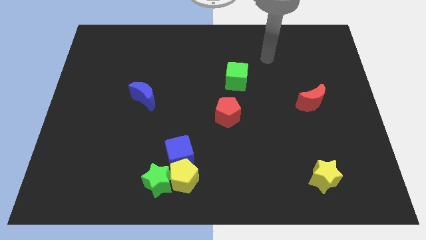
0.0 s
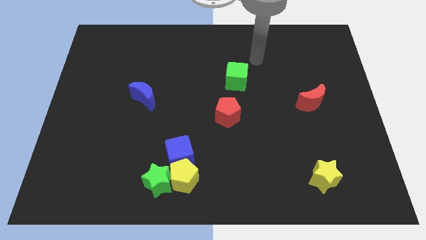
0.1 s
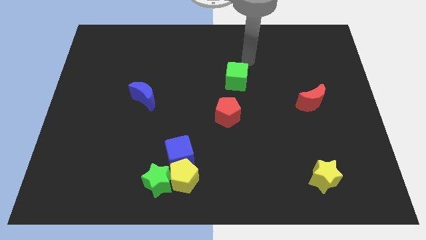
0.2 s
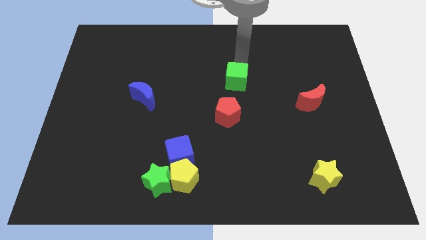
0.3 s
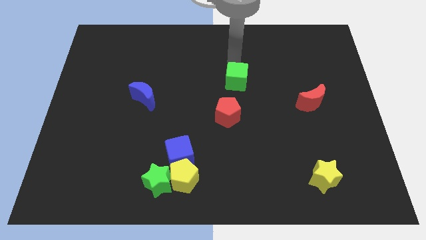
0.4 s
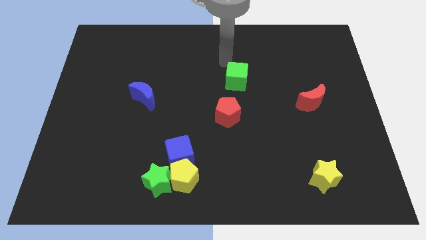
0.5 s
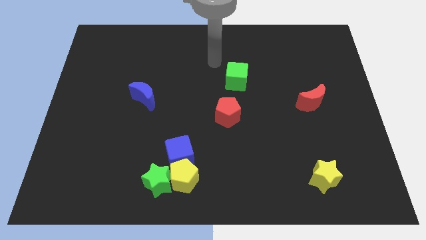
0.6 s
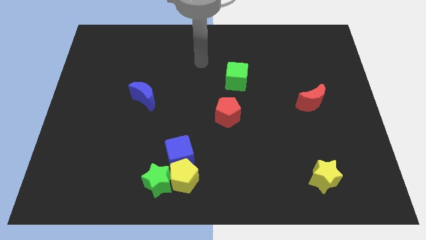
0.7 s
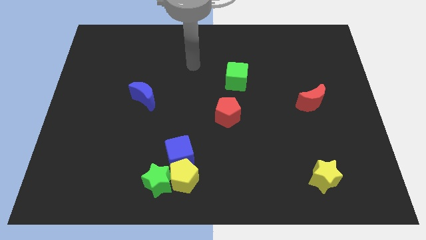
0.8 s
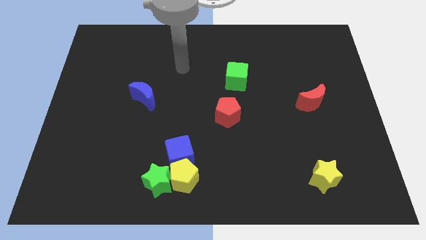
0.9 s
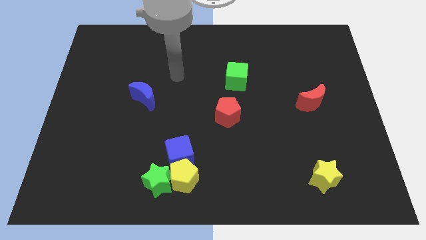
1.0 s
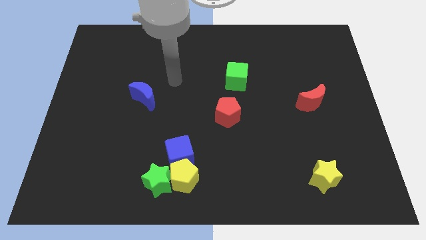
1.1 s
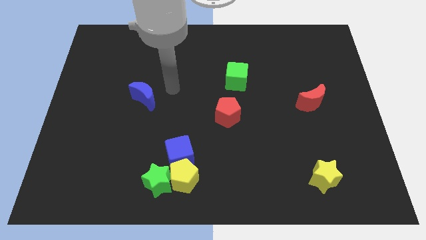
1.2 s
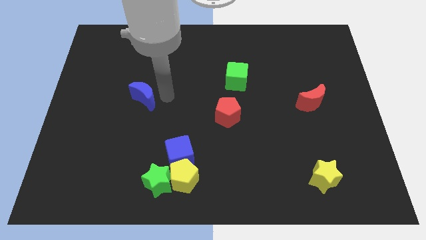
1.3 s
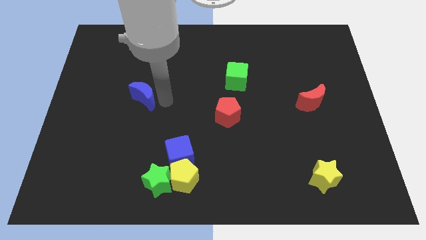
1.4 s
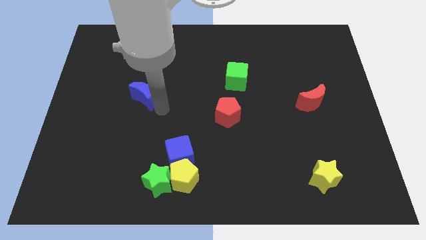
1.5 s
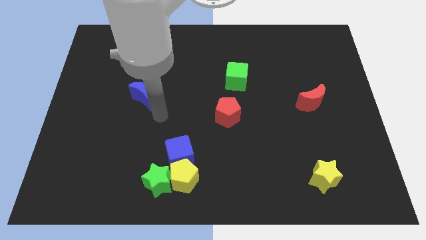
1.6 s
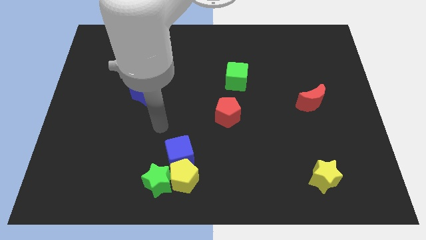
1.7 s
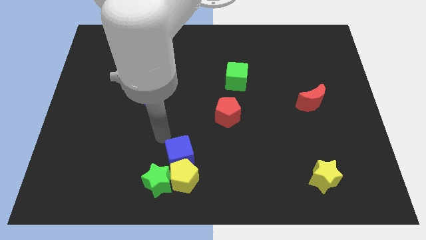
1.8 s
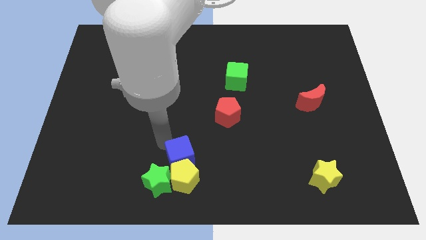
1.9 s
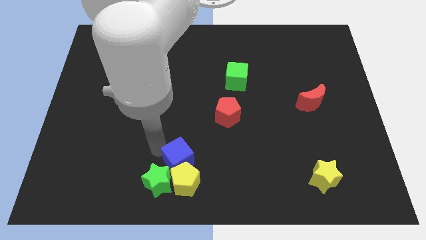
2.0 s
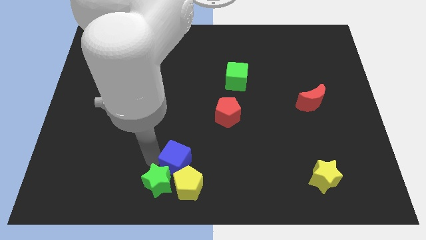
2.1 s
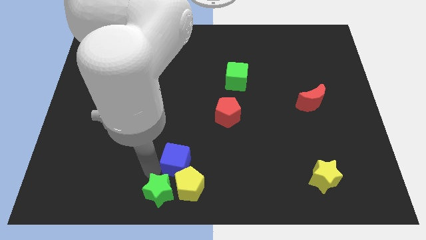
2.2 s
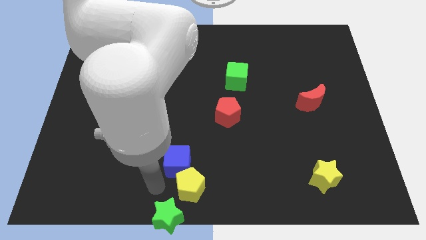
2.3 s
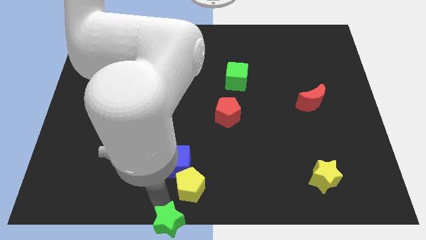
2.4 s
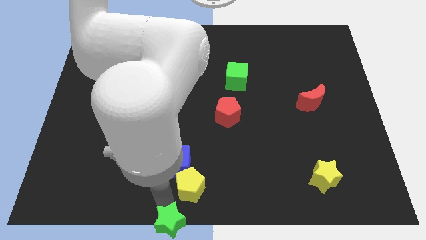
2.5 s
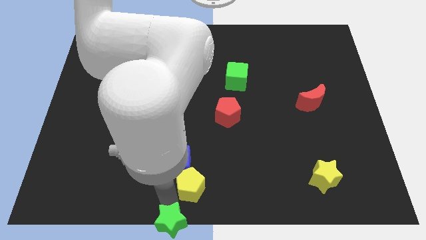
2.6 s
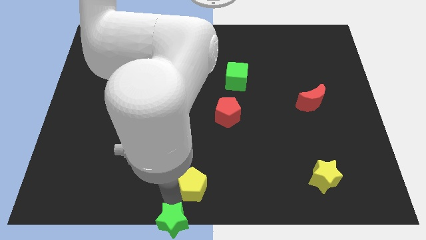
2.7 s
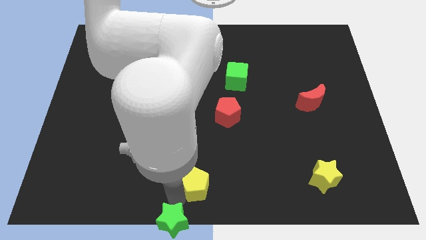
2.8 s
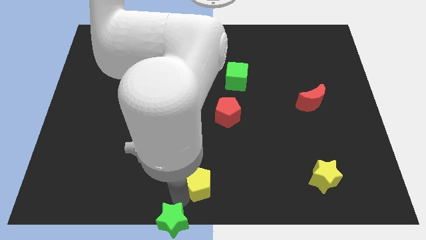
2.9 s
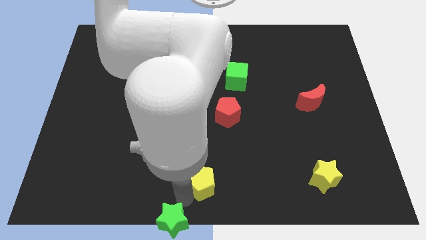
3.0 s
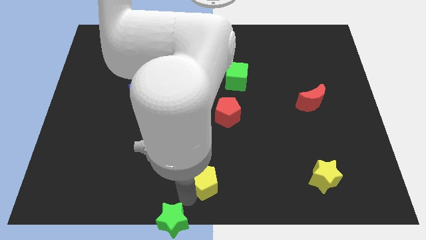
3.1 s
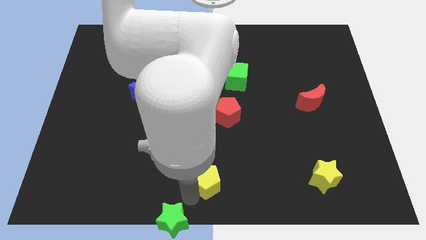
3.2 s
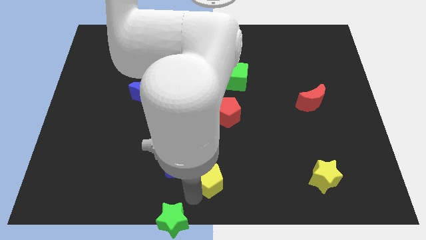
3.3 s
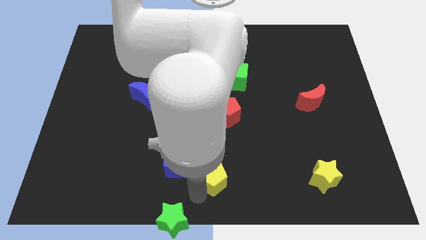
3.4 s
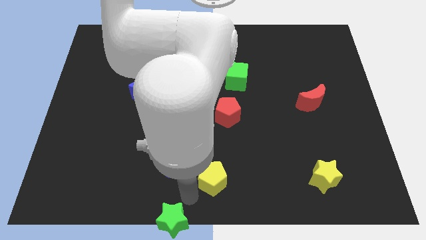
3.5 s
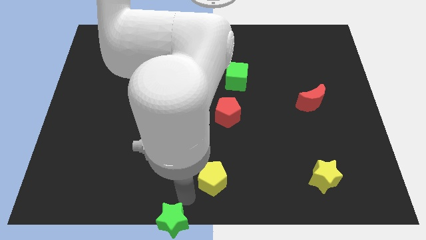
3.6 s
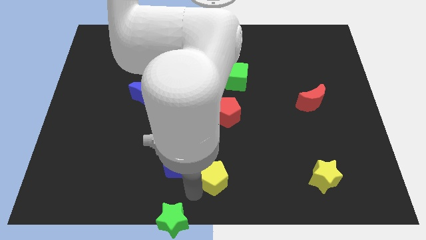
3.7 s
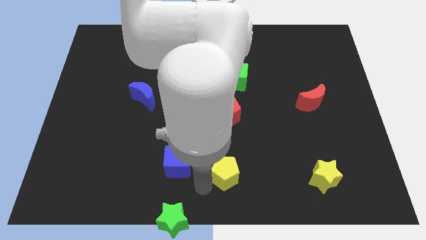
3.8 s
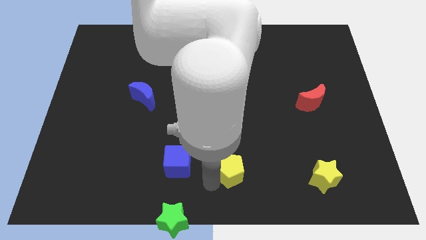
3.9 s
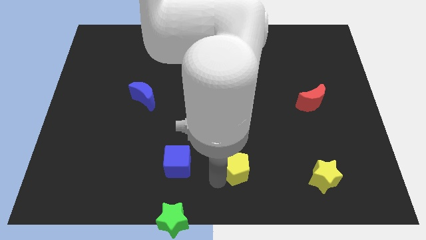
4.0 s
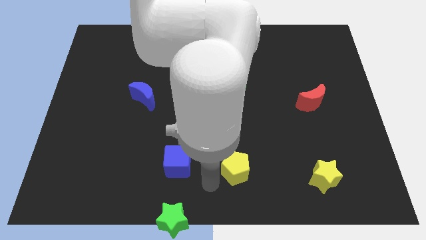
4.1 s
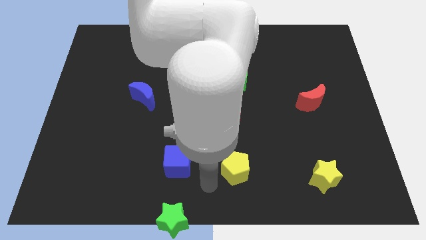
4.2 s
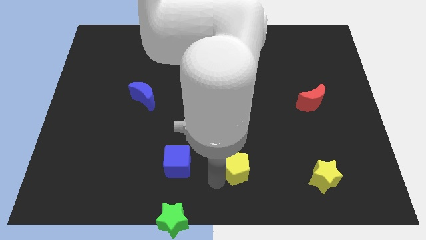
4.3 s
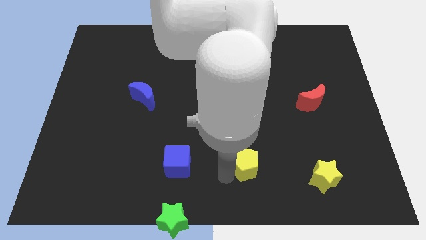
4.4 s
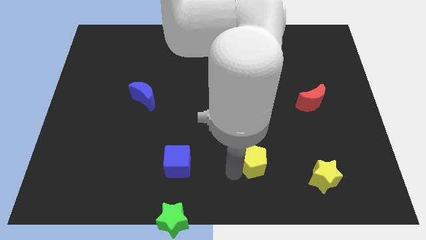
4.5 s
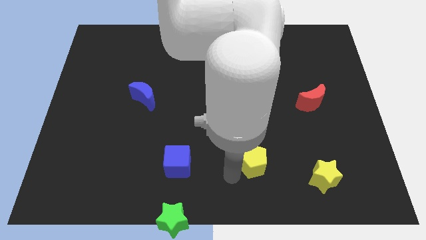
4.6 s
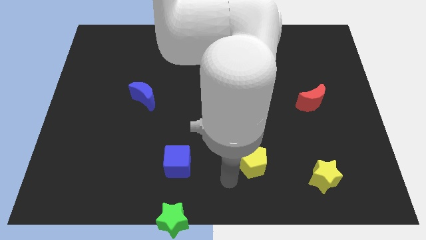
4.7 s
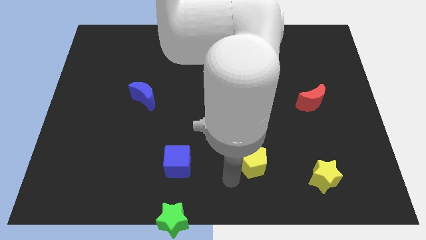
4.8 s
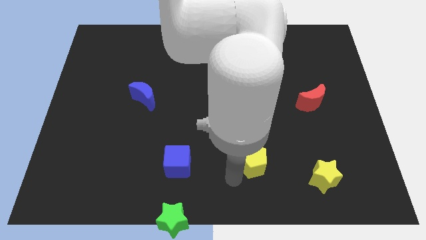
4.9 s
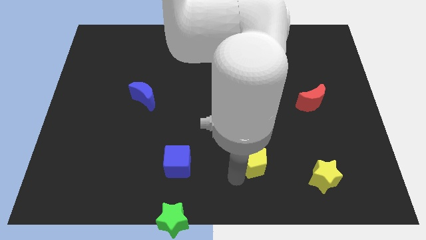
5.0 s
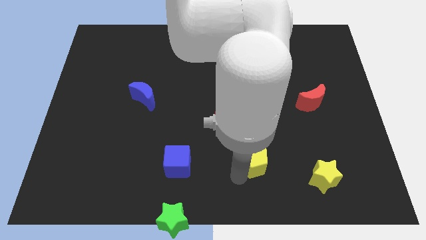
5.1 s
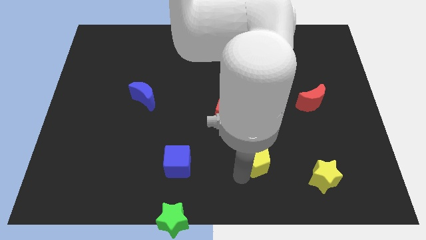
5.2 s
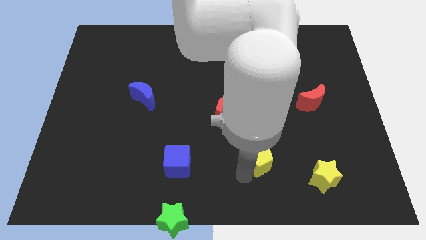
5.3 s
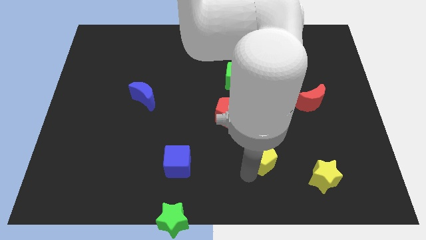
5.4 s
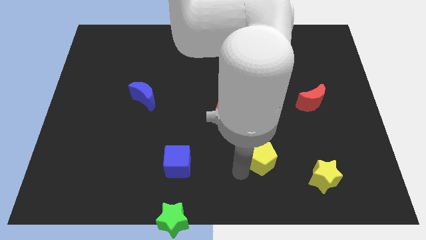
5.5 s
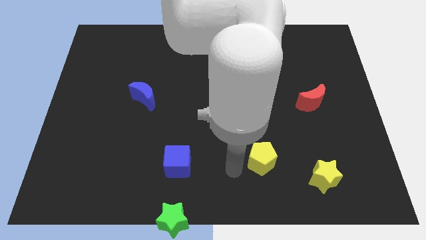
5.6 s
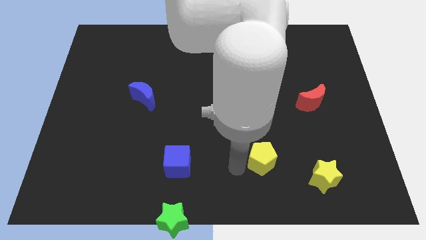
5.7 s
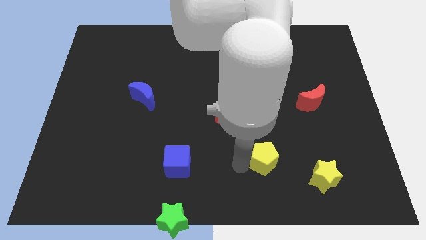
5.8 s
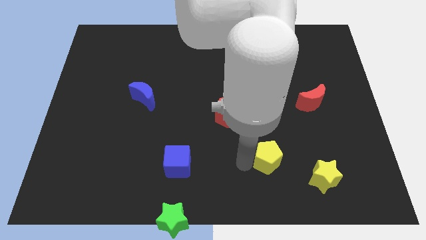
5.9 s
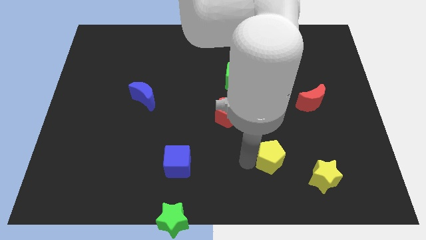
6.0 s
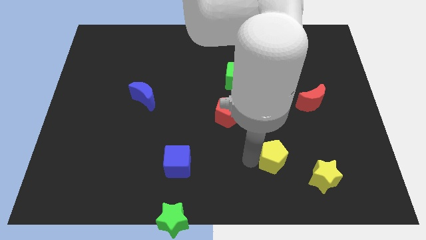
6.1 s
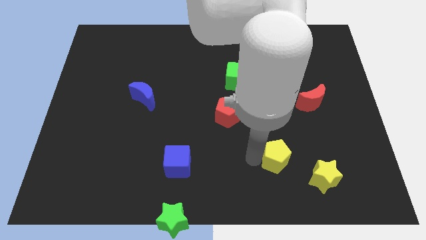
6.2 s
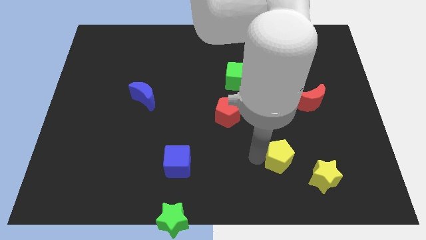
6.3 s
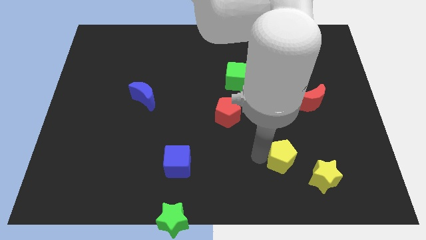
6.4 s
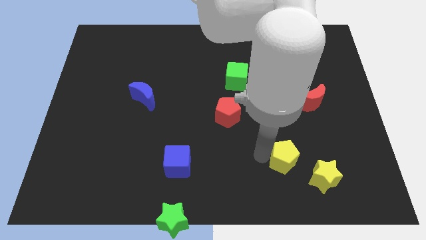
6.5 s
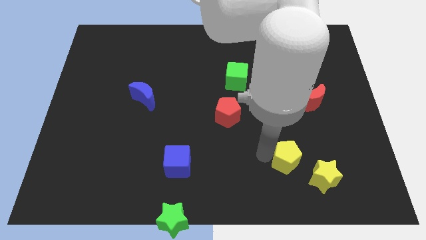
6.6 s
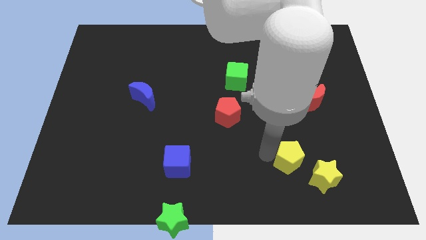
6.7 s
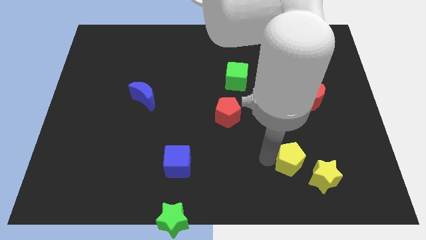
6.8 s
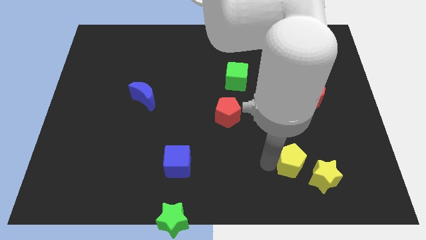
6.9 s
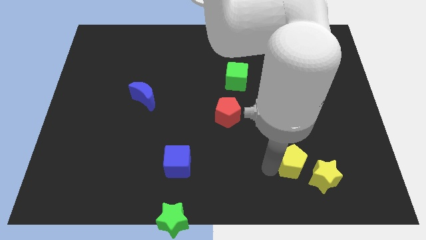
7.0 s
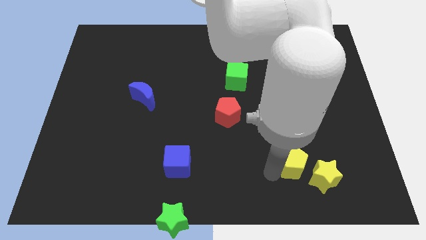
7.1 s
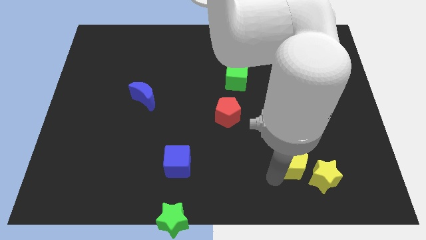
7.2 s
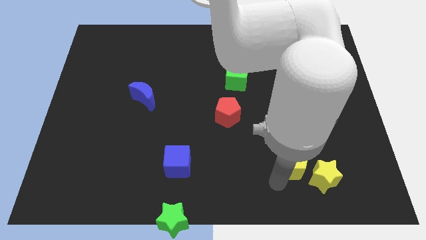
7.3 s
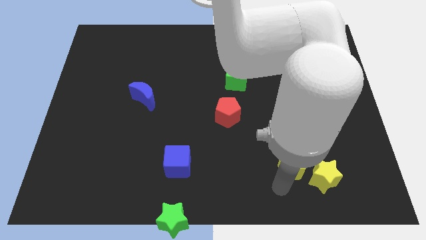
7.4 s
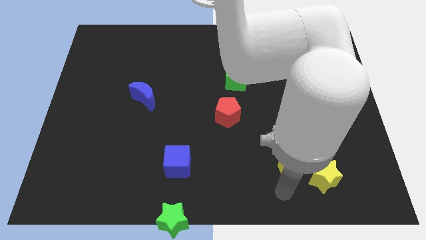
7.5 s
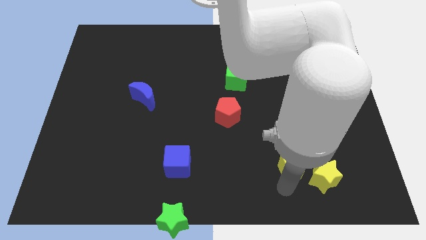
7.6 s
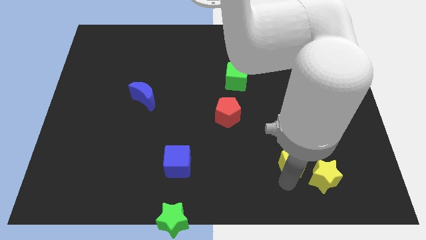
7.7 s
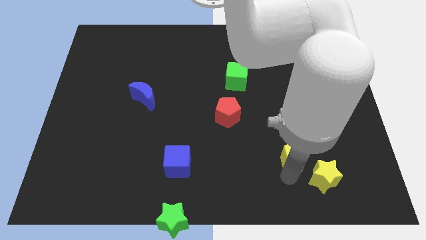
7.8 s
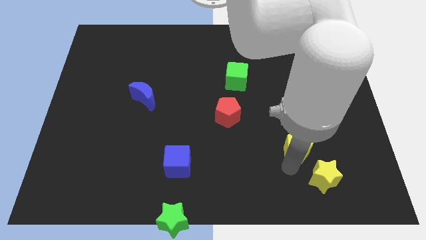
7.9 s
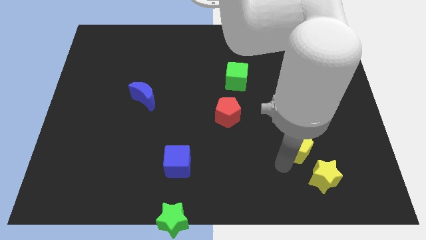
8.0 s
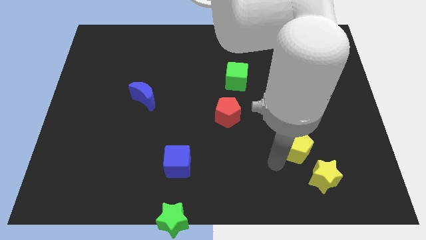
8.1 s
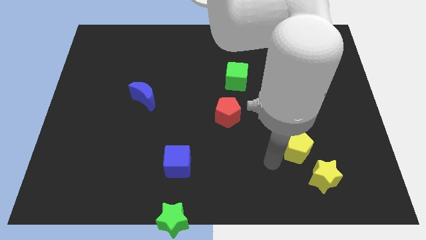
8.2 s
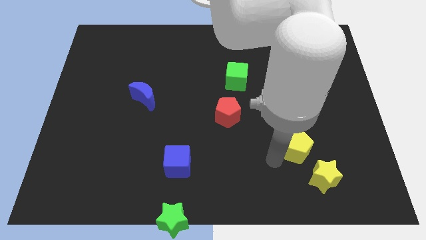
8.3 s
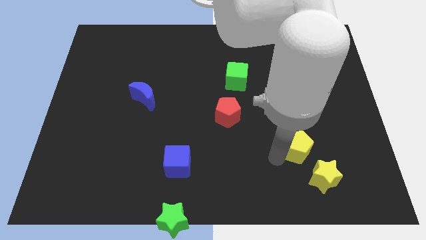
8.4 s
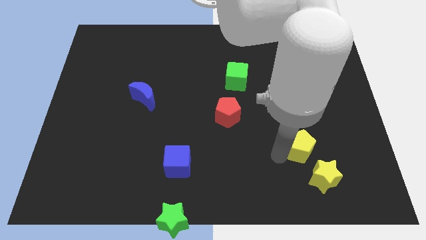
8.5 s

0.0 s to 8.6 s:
move the yellow pentagon to the bottom of the red moon
